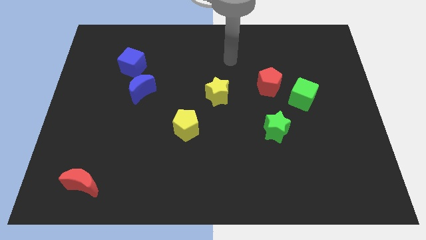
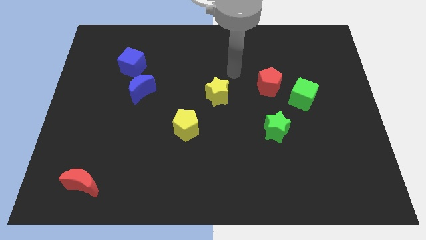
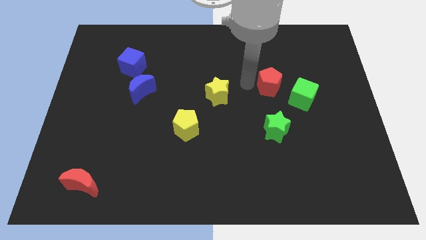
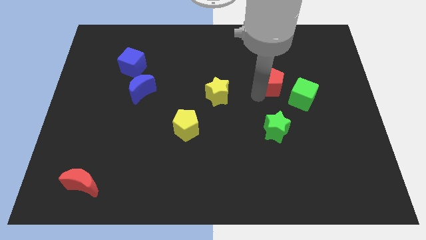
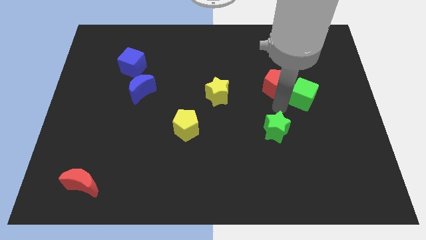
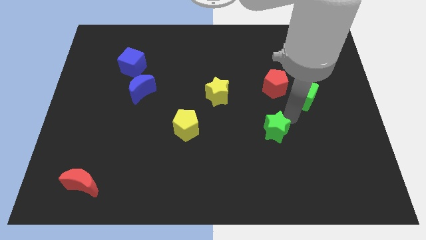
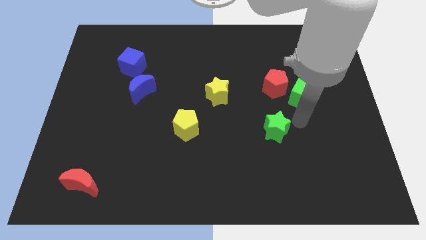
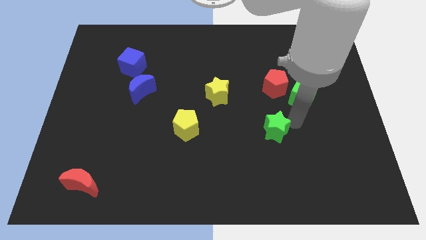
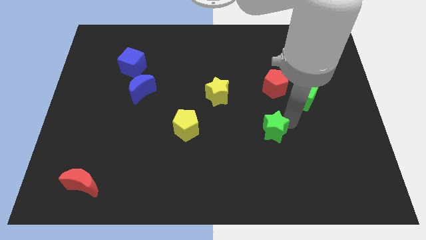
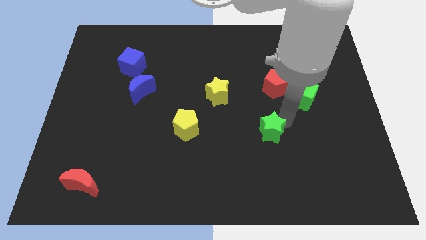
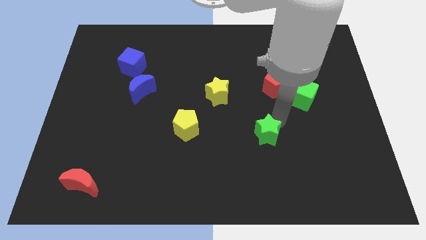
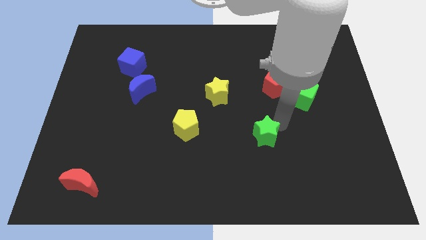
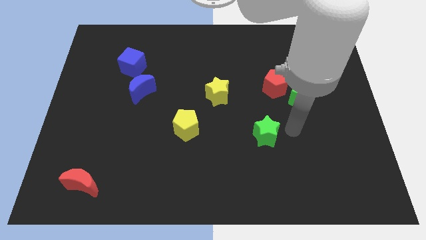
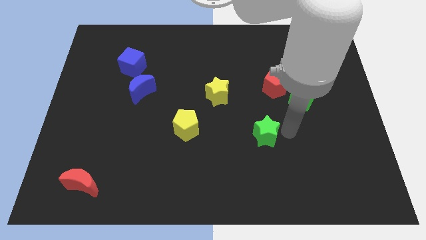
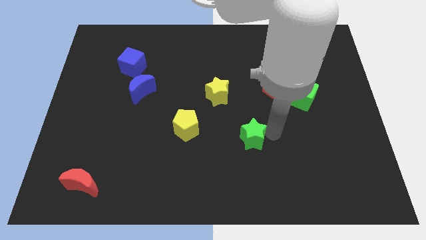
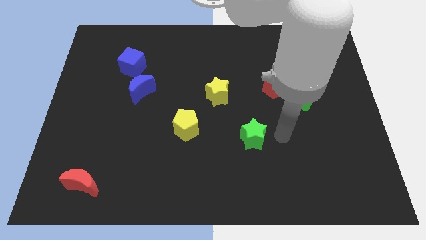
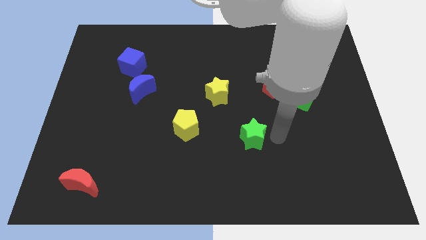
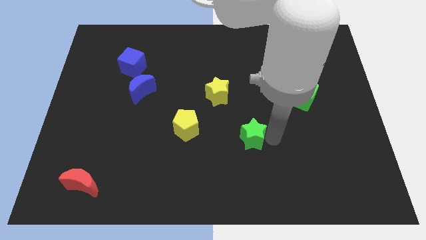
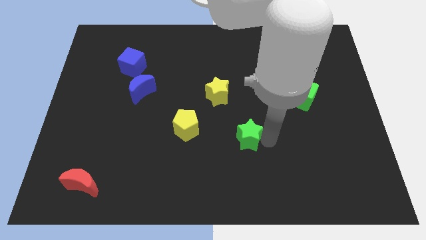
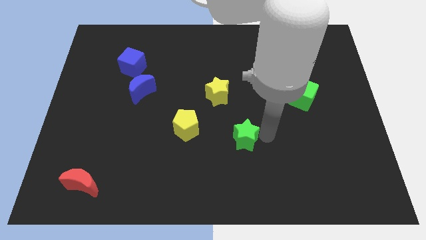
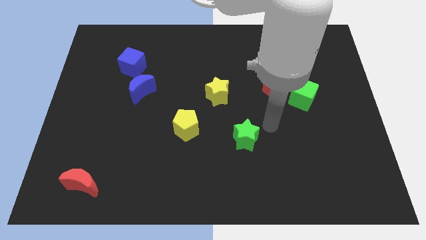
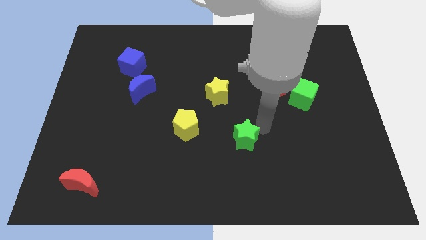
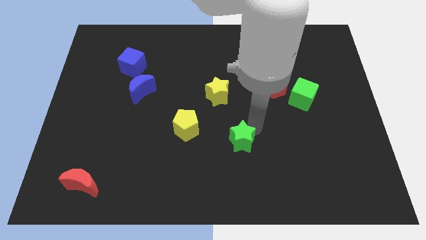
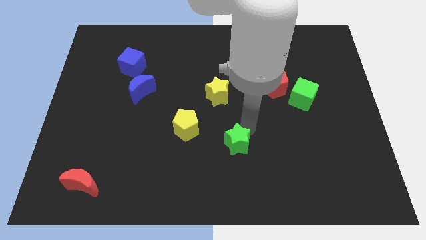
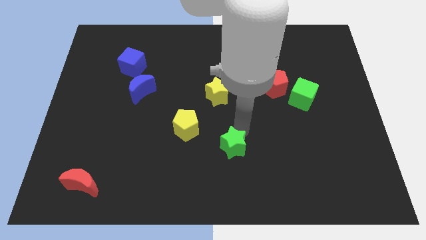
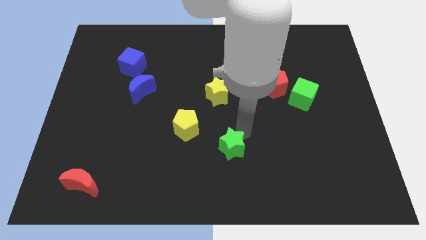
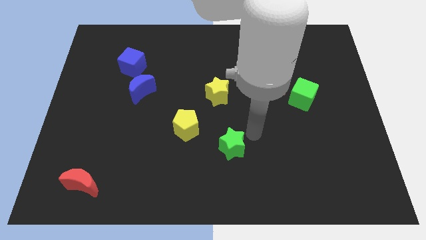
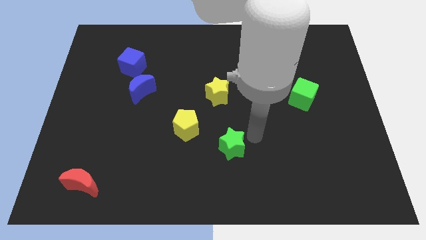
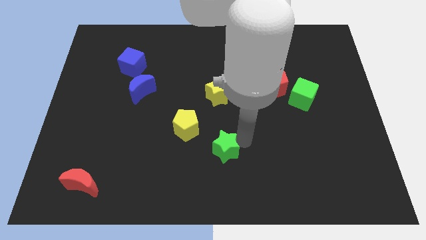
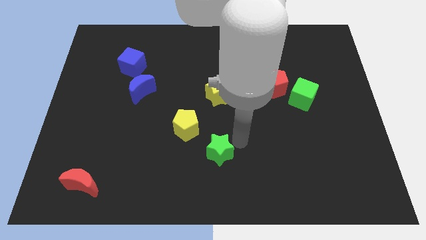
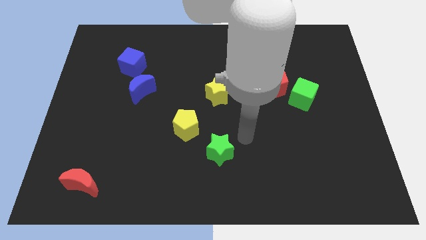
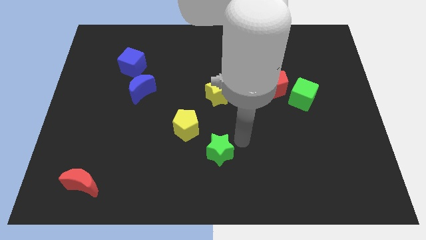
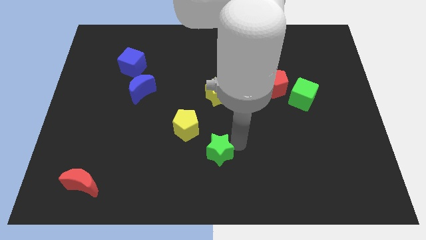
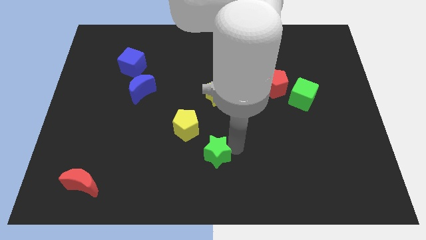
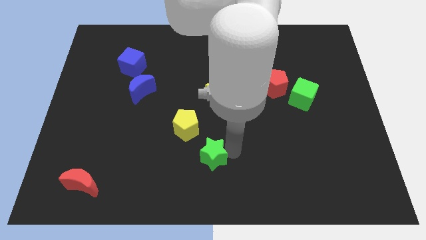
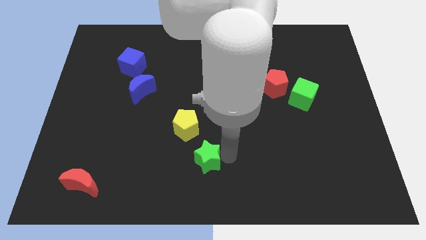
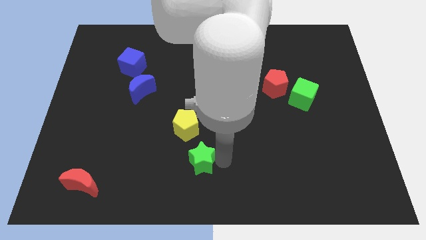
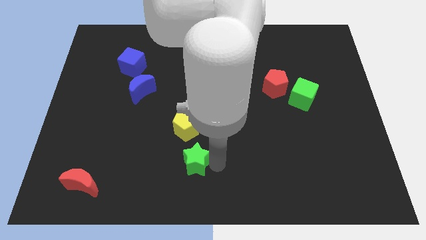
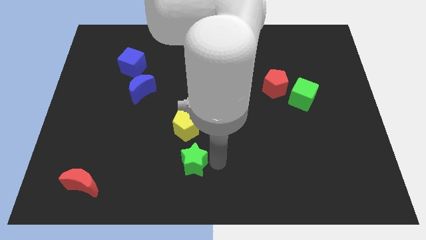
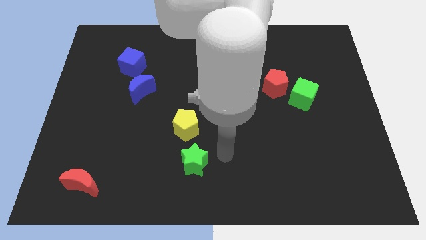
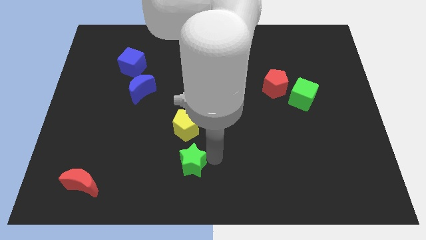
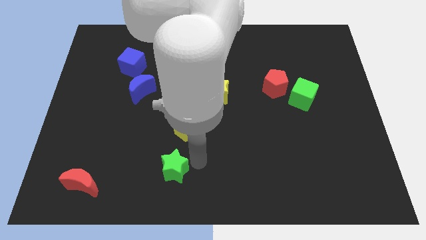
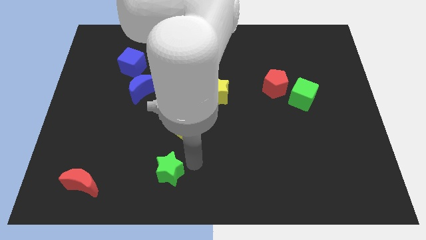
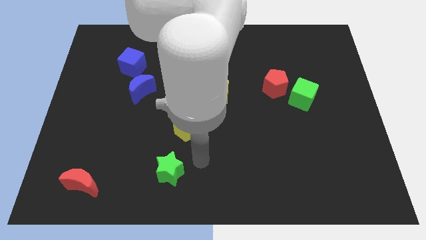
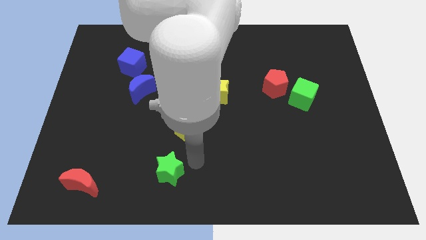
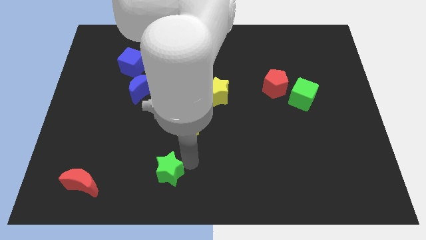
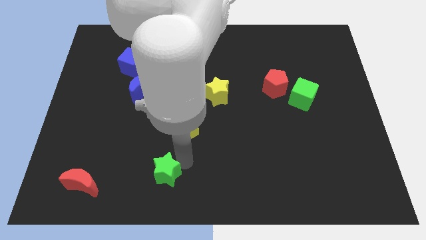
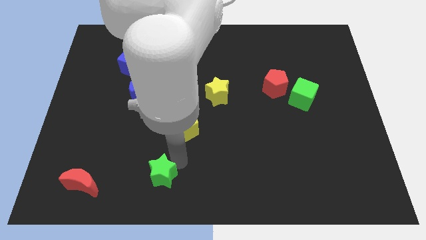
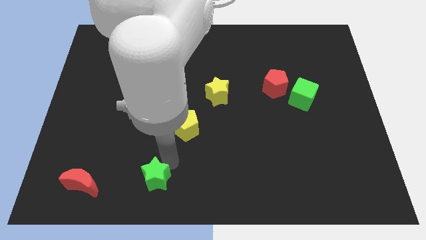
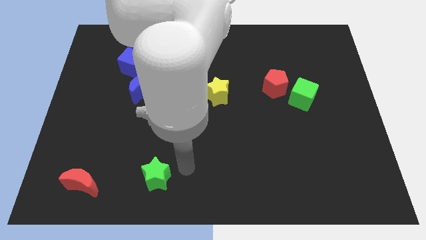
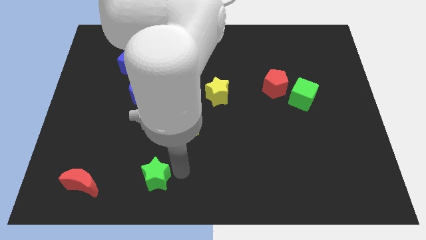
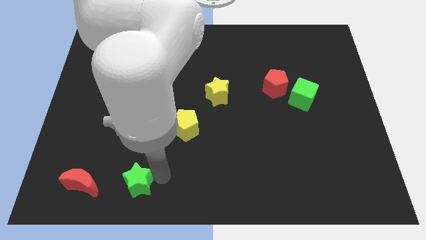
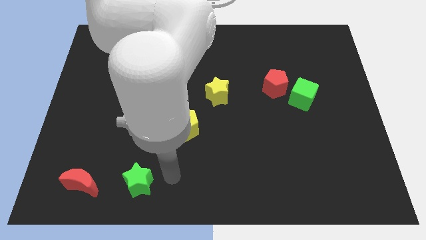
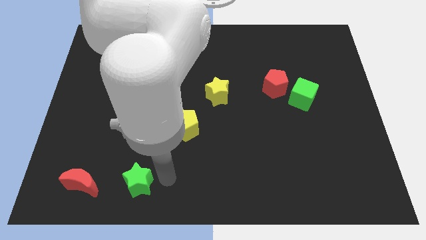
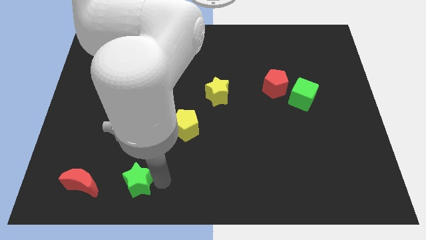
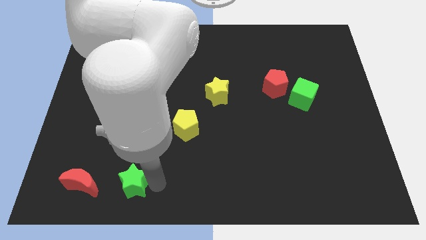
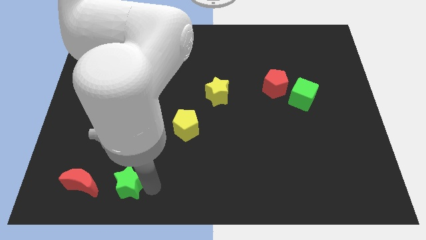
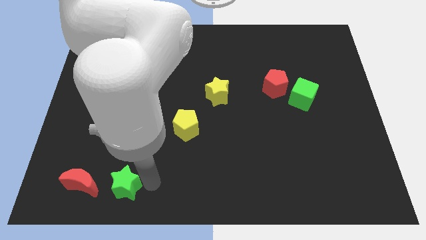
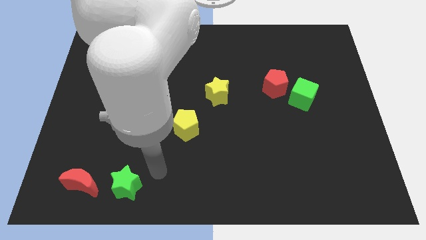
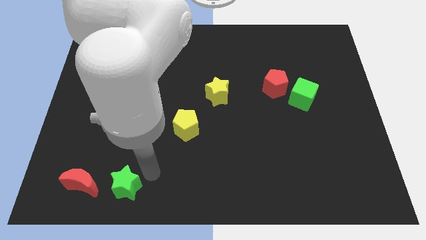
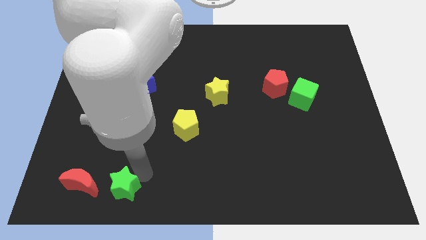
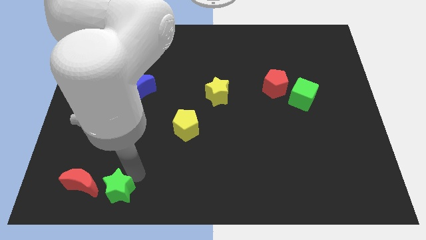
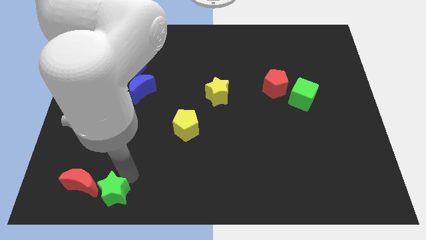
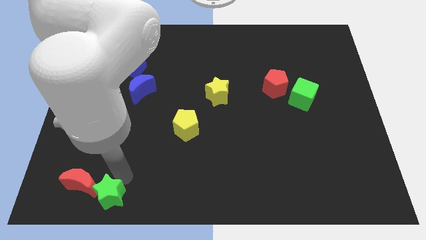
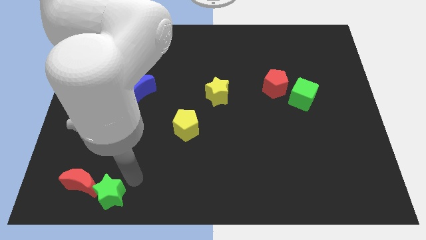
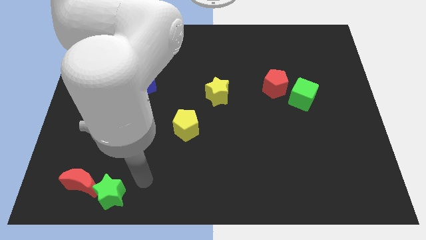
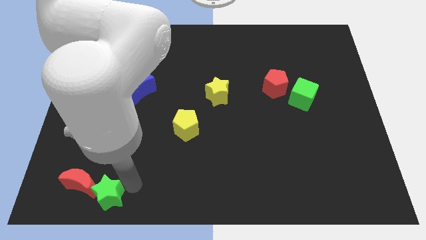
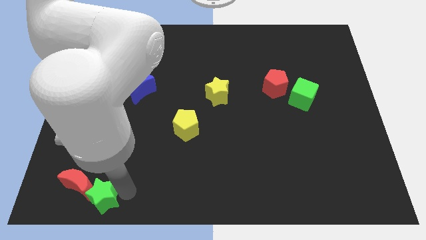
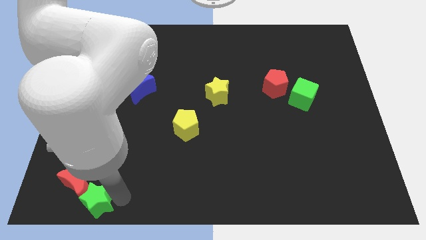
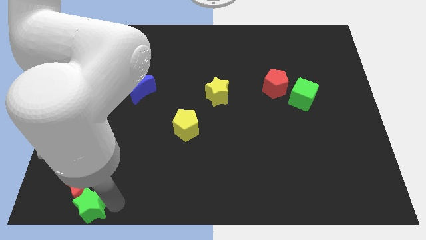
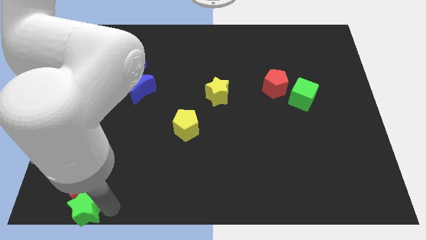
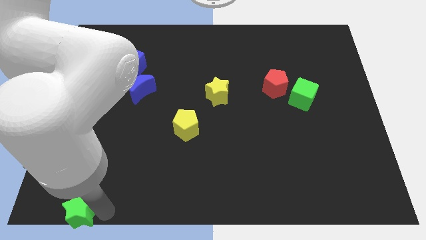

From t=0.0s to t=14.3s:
push the green star to the lower left corner
